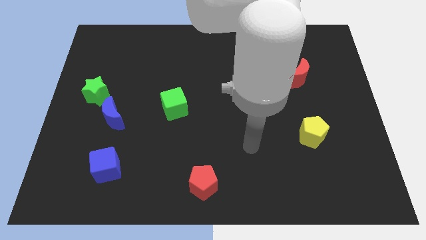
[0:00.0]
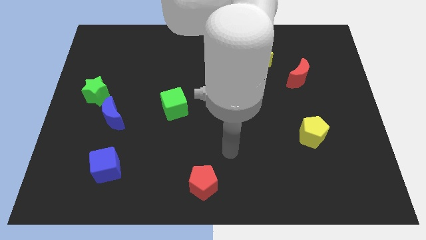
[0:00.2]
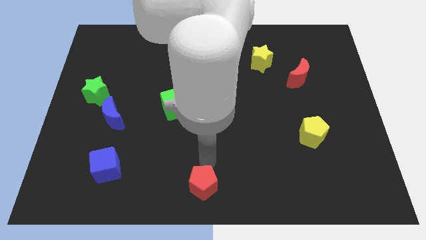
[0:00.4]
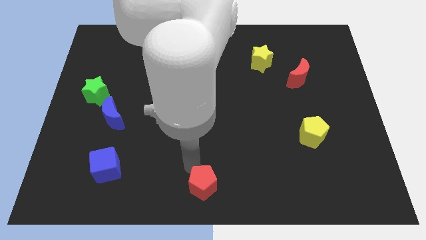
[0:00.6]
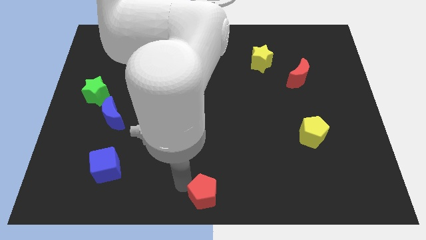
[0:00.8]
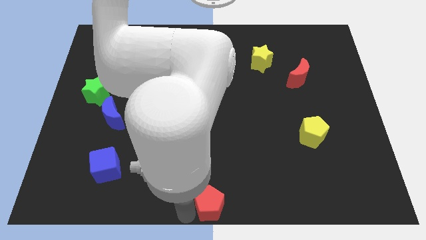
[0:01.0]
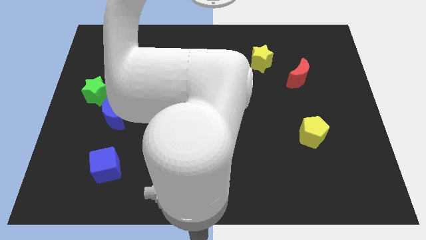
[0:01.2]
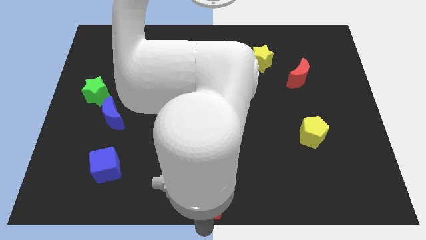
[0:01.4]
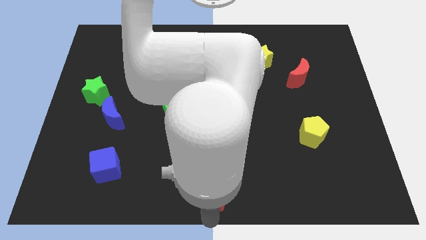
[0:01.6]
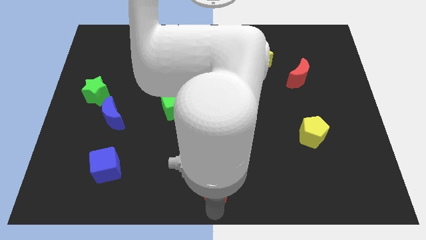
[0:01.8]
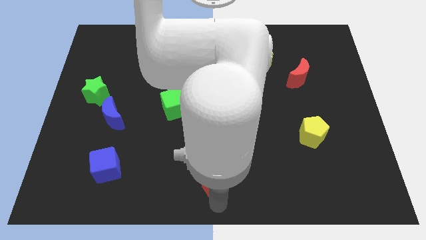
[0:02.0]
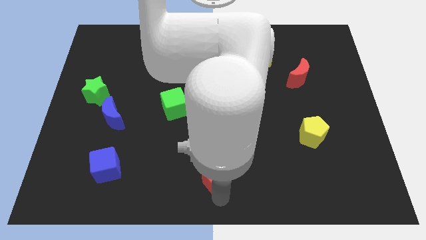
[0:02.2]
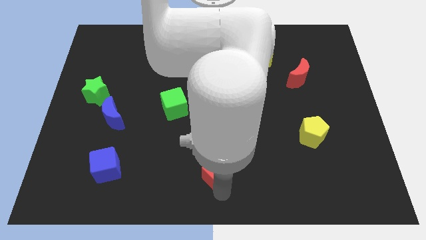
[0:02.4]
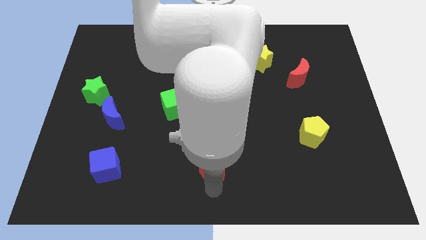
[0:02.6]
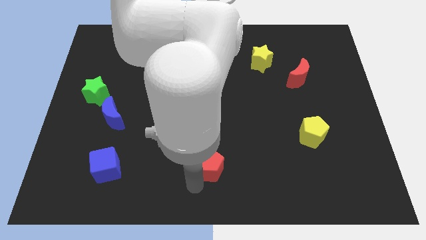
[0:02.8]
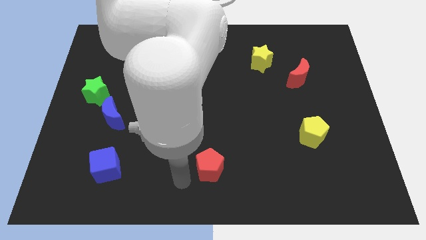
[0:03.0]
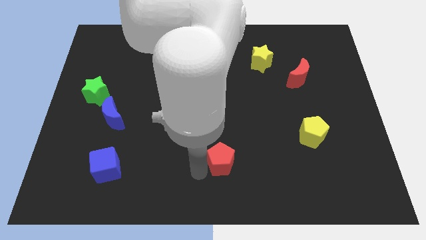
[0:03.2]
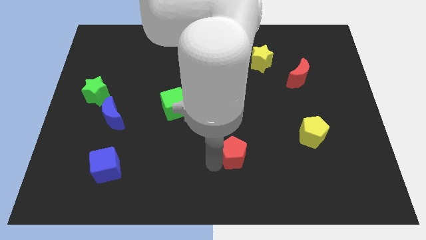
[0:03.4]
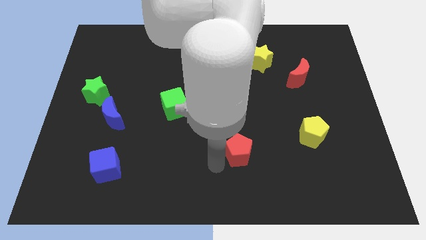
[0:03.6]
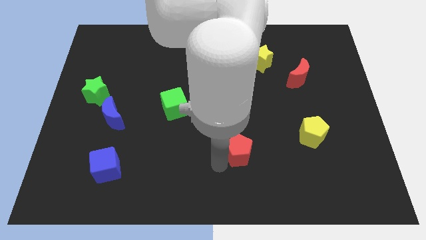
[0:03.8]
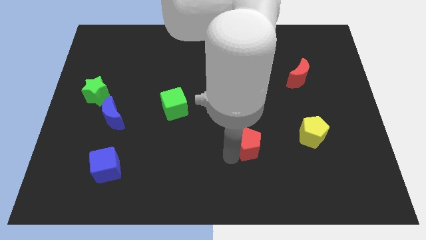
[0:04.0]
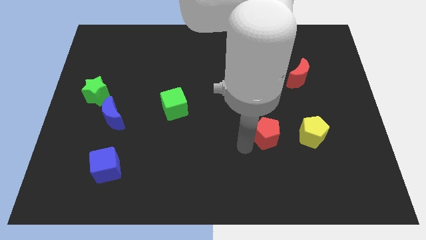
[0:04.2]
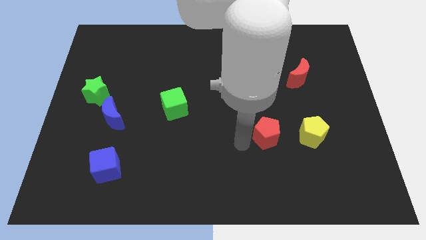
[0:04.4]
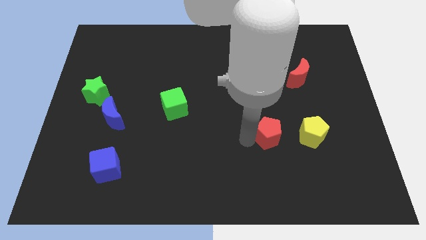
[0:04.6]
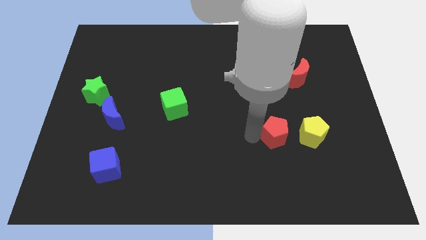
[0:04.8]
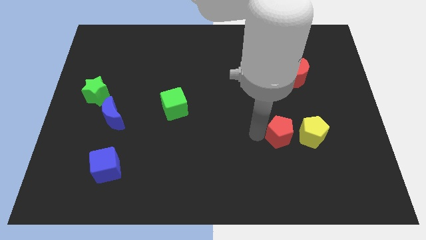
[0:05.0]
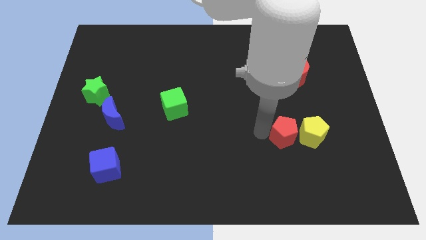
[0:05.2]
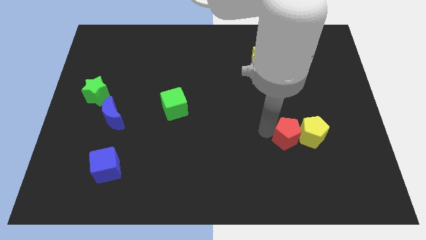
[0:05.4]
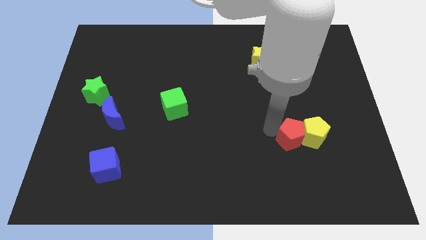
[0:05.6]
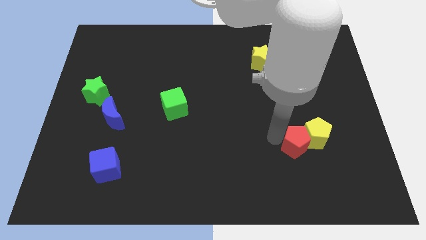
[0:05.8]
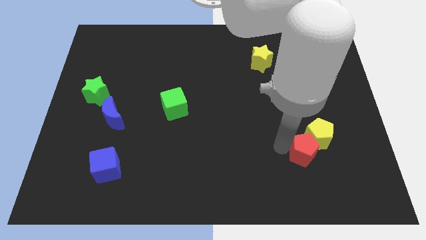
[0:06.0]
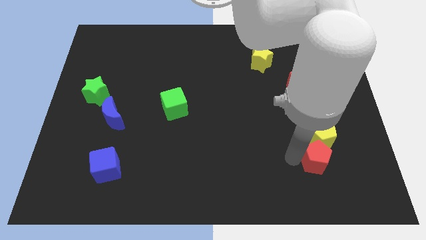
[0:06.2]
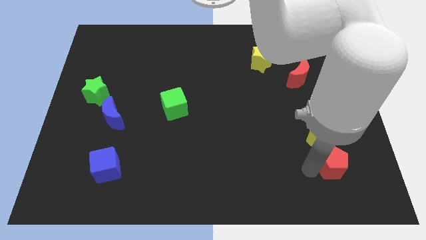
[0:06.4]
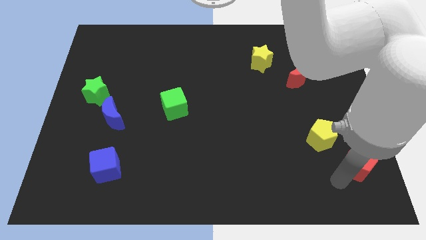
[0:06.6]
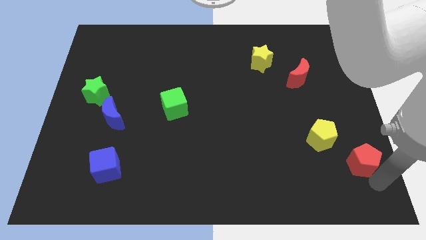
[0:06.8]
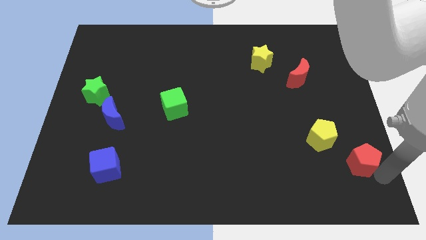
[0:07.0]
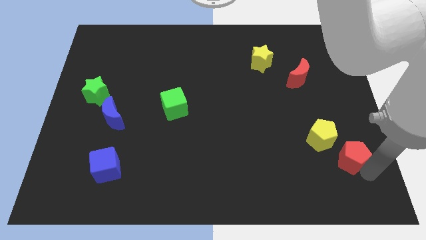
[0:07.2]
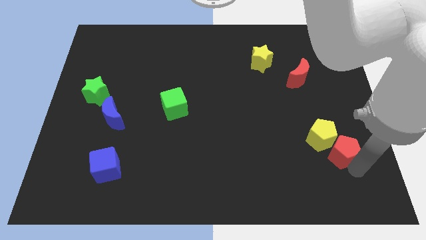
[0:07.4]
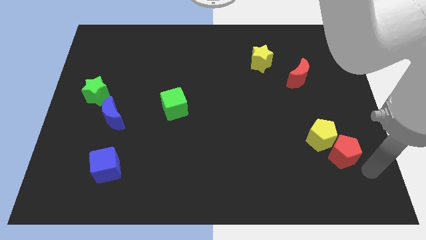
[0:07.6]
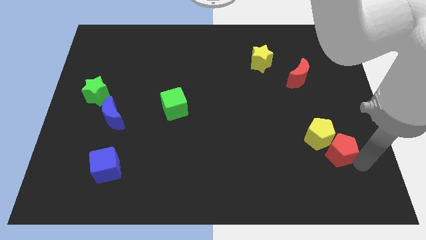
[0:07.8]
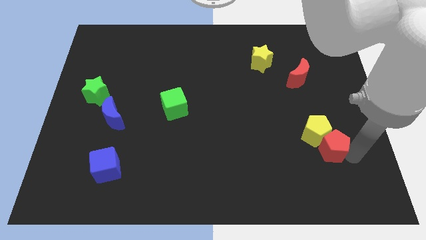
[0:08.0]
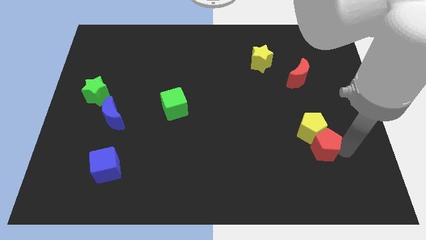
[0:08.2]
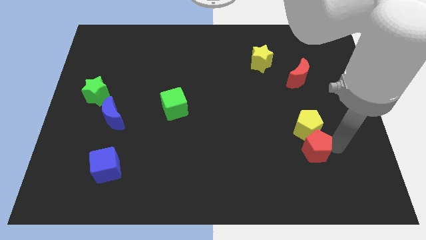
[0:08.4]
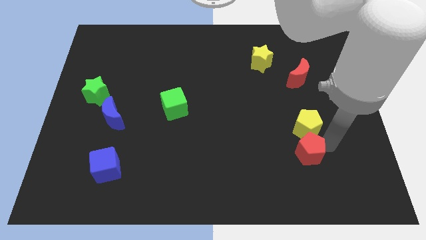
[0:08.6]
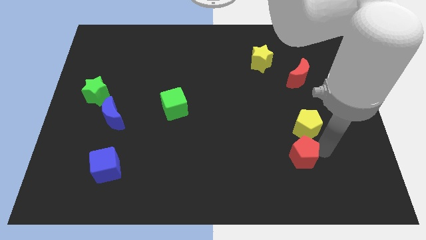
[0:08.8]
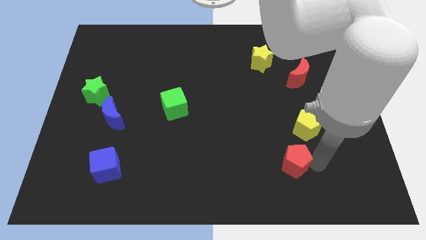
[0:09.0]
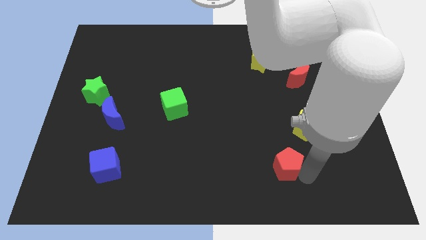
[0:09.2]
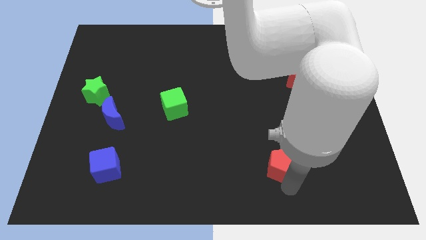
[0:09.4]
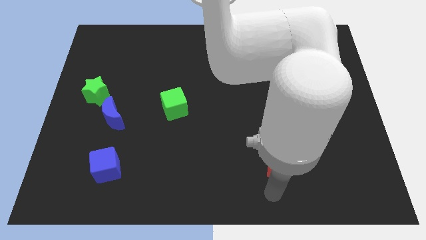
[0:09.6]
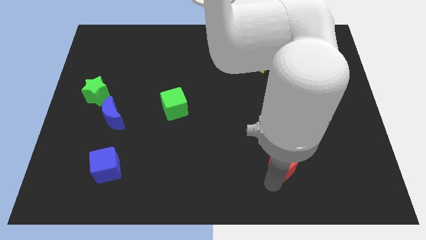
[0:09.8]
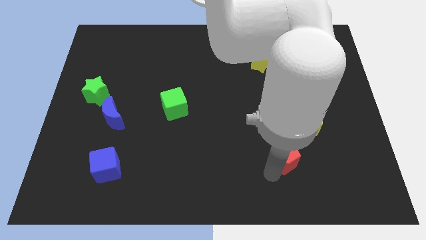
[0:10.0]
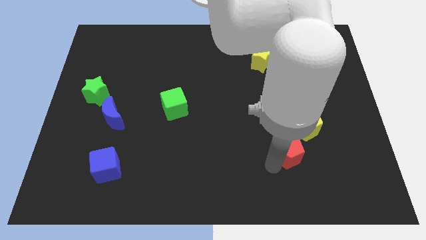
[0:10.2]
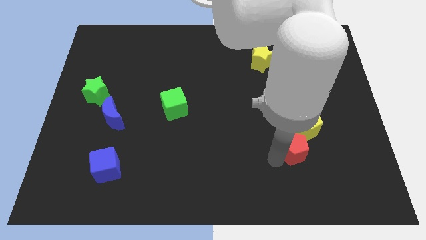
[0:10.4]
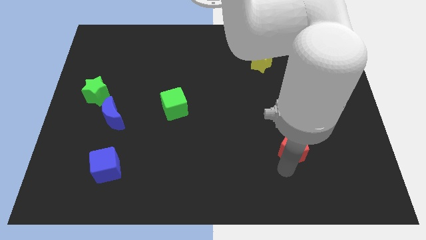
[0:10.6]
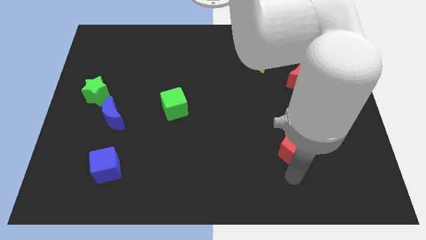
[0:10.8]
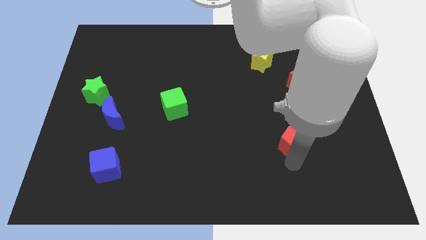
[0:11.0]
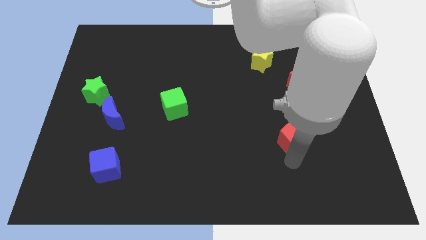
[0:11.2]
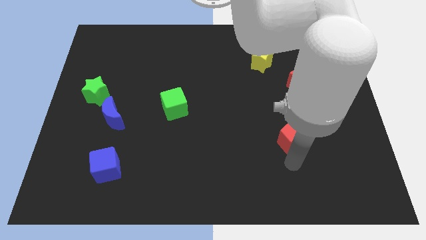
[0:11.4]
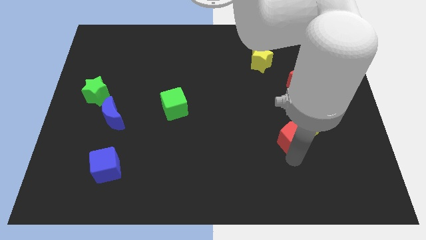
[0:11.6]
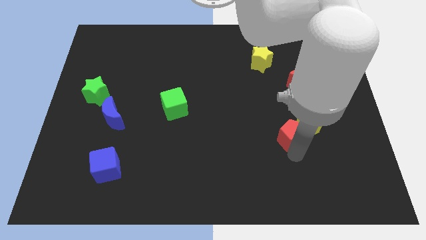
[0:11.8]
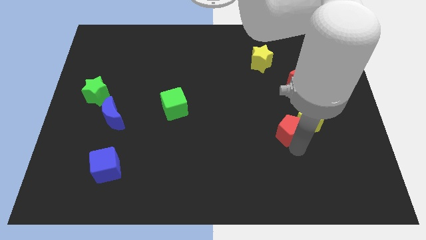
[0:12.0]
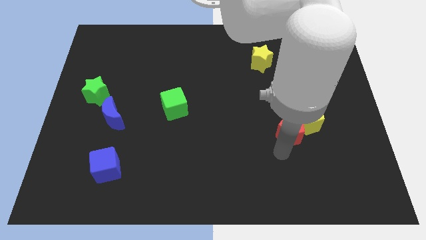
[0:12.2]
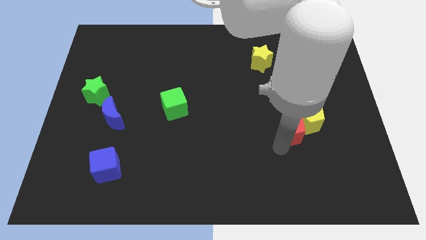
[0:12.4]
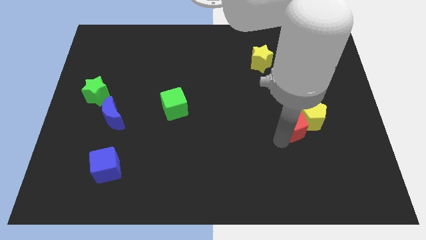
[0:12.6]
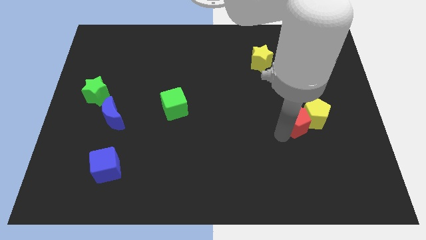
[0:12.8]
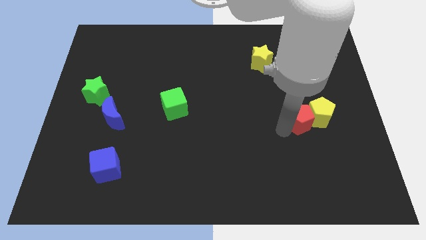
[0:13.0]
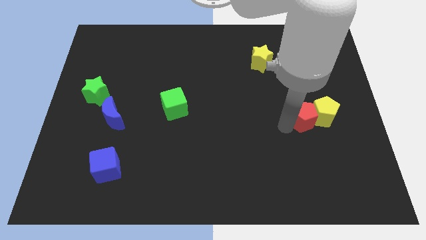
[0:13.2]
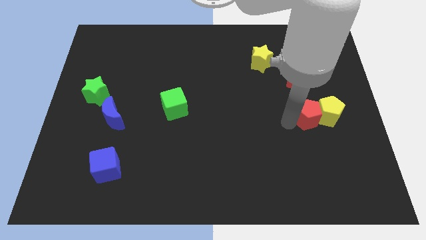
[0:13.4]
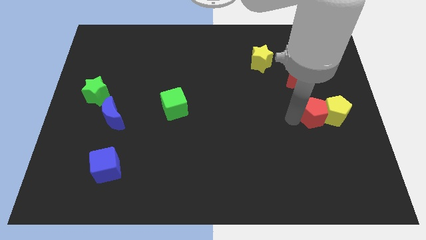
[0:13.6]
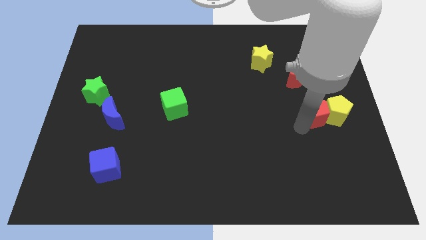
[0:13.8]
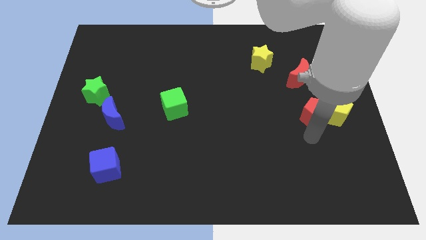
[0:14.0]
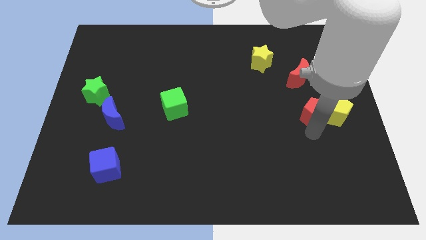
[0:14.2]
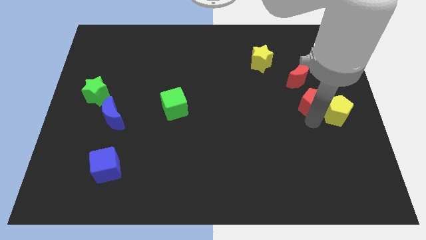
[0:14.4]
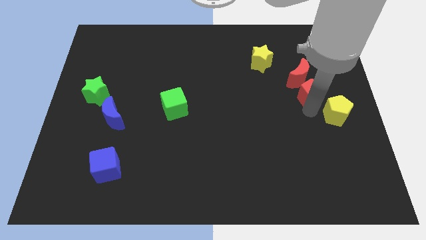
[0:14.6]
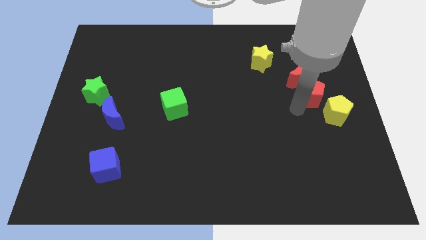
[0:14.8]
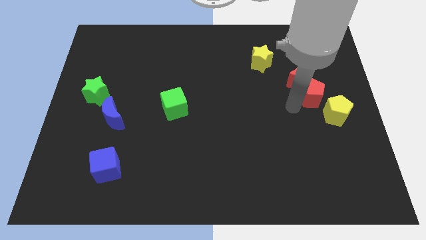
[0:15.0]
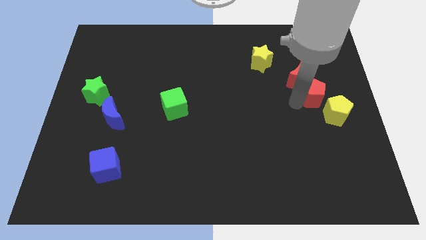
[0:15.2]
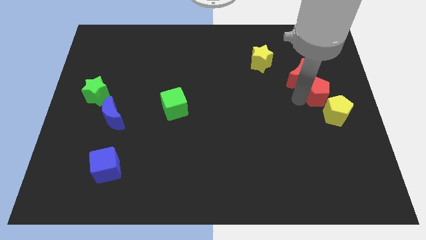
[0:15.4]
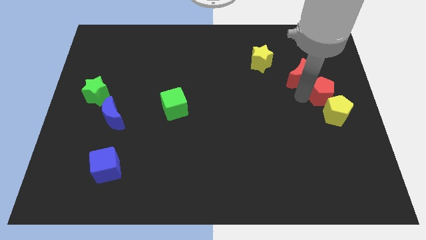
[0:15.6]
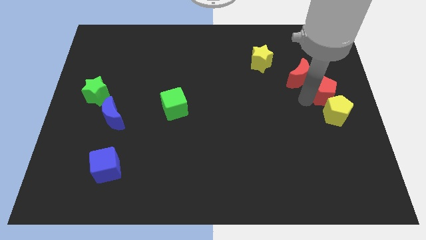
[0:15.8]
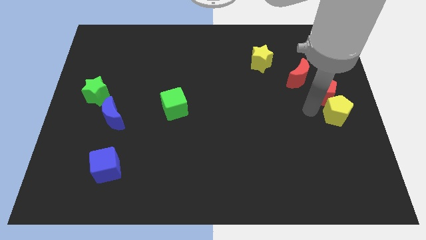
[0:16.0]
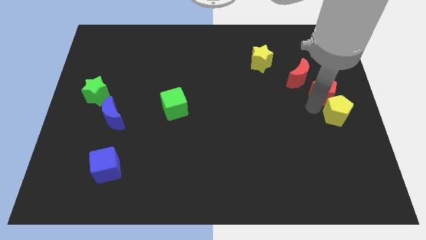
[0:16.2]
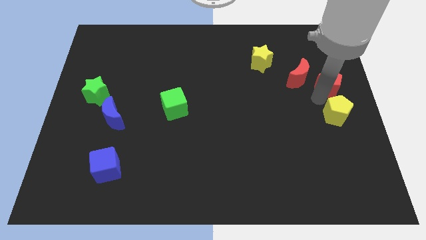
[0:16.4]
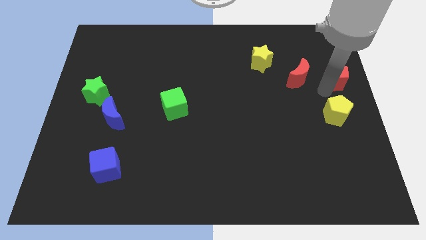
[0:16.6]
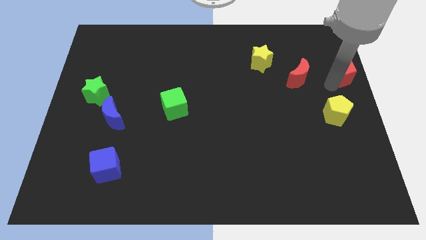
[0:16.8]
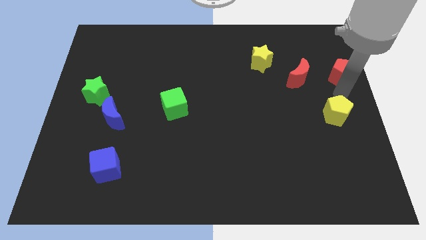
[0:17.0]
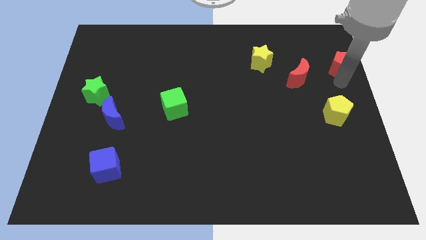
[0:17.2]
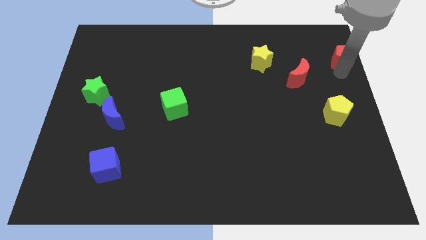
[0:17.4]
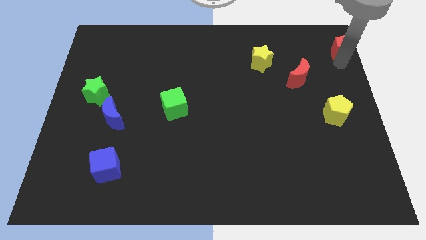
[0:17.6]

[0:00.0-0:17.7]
slide the red pentagon to the top right
